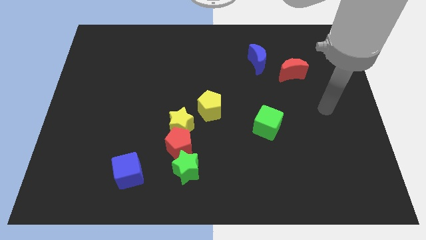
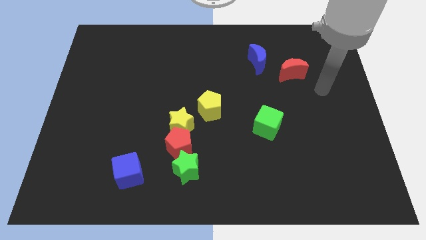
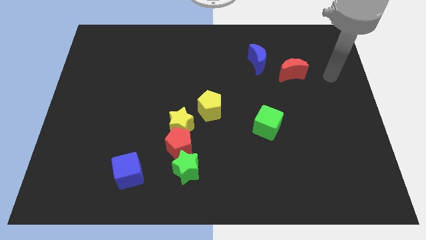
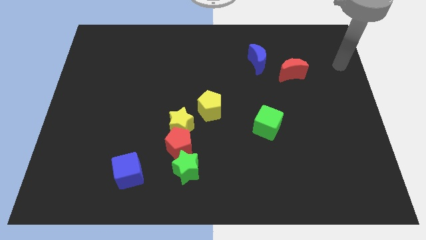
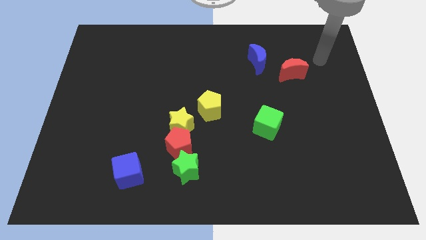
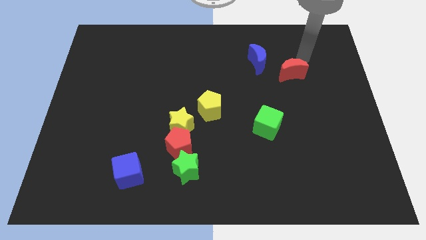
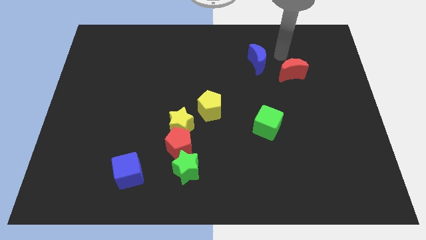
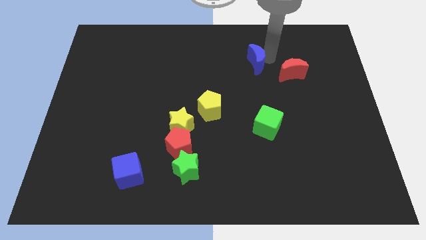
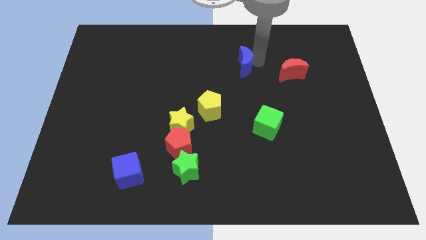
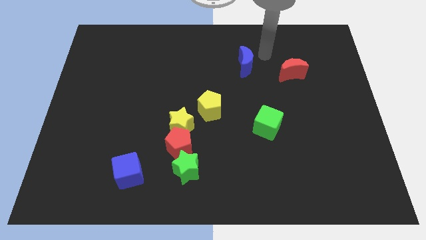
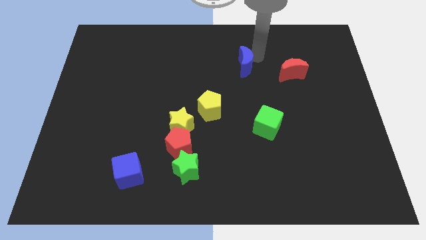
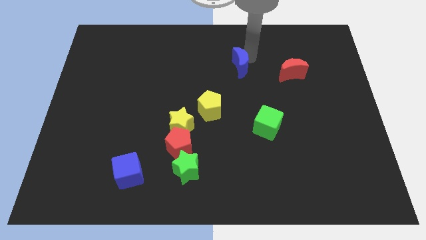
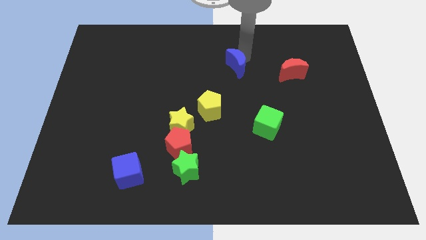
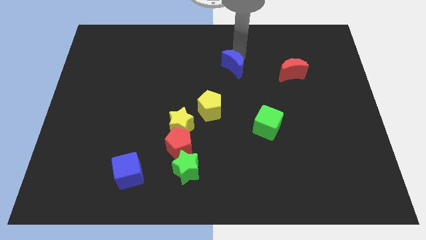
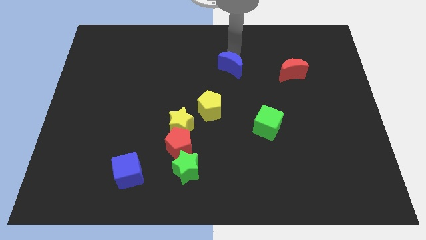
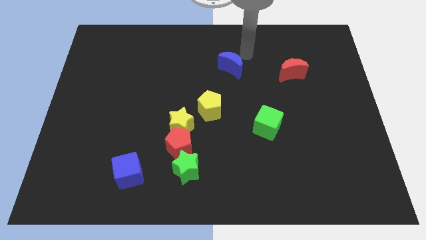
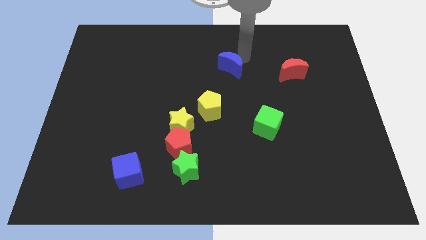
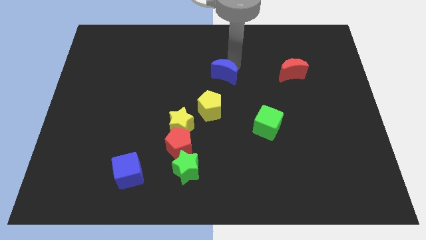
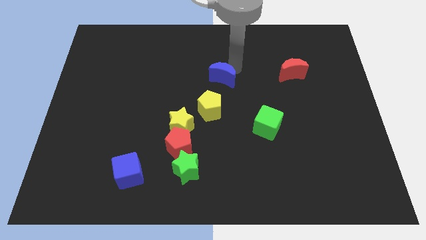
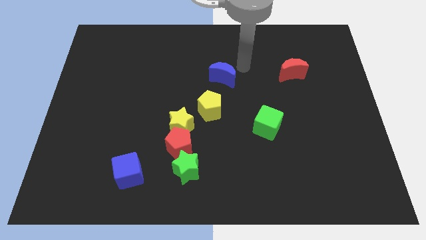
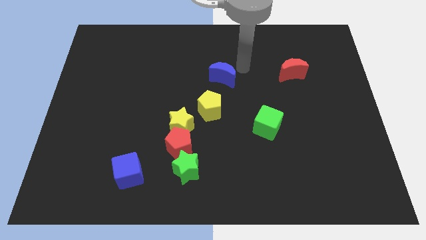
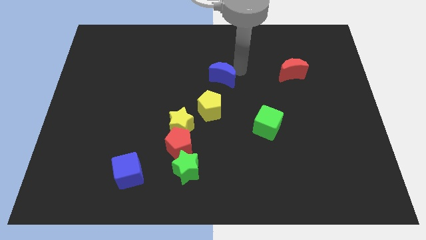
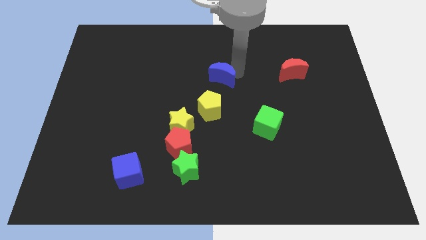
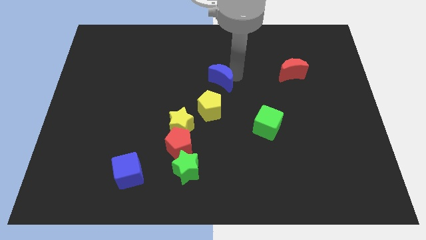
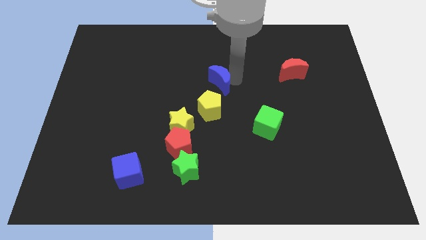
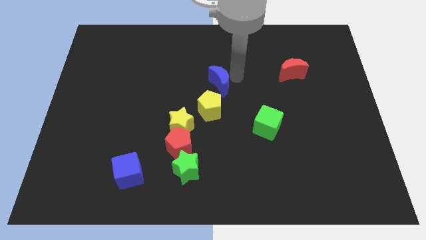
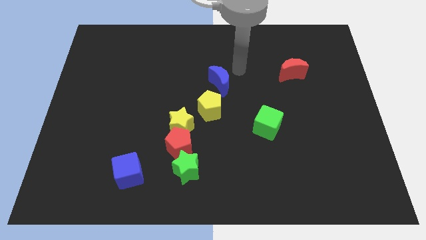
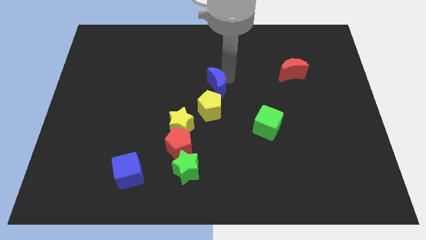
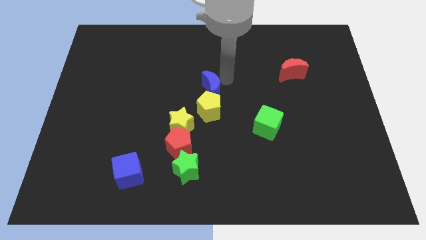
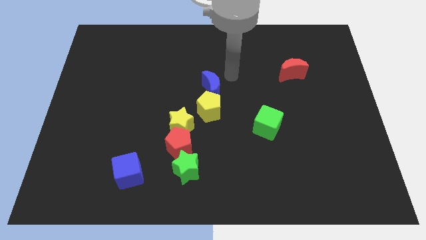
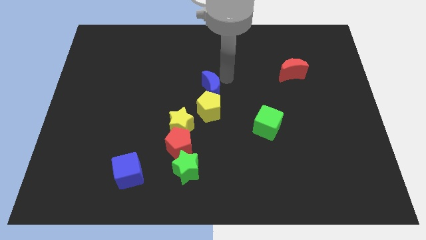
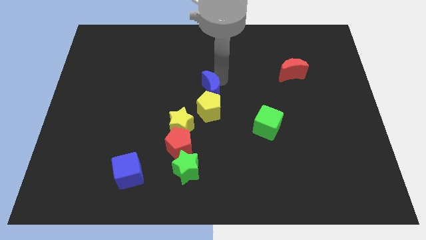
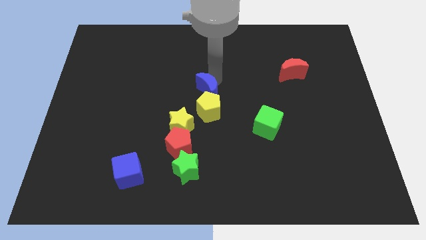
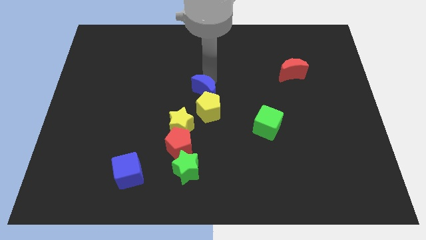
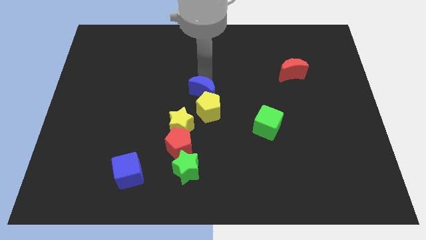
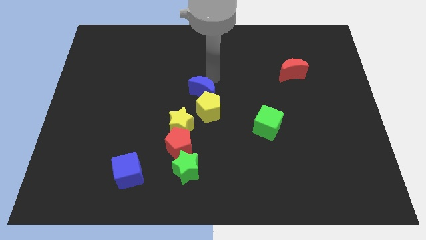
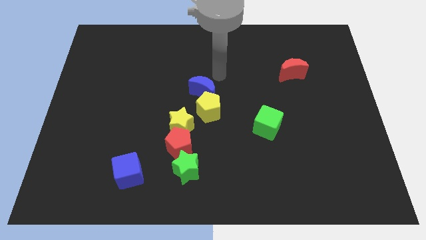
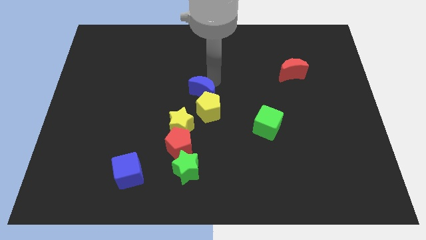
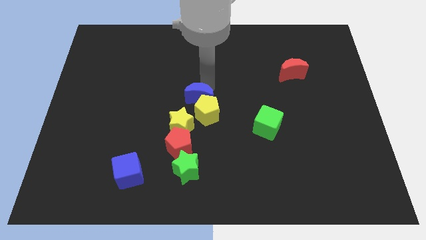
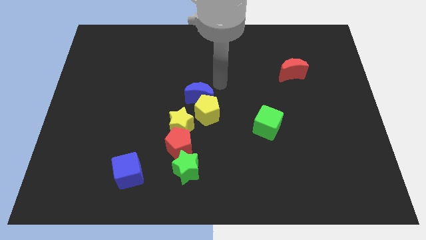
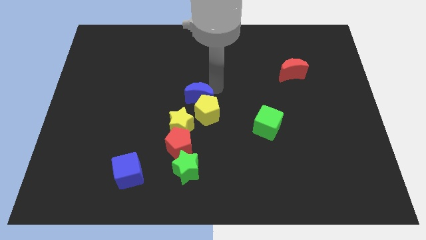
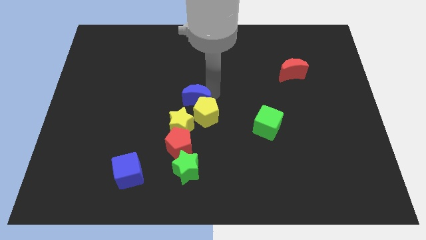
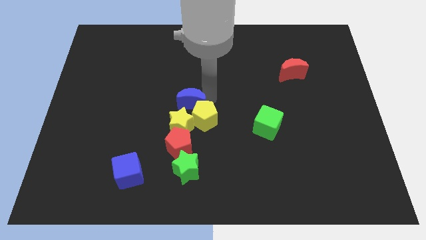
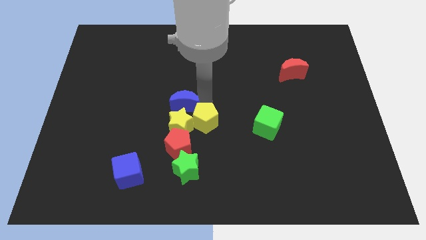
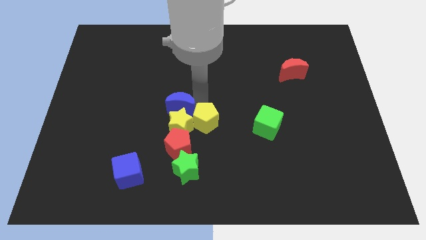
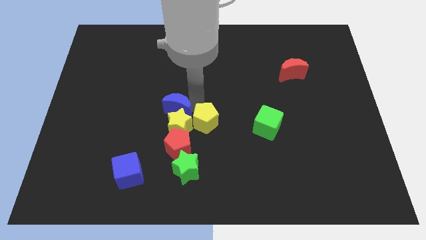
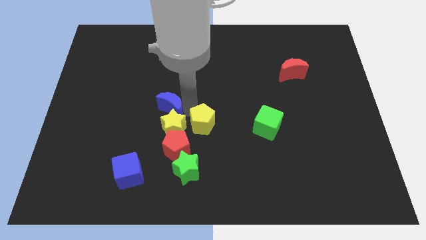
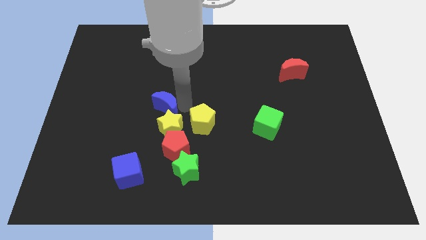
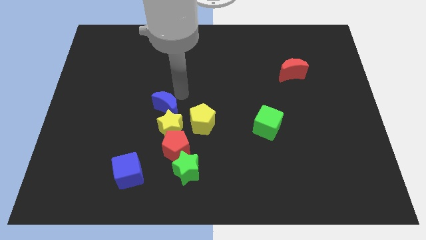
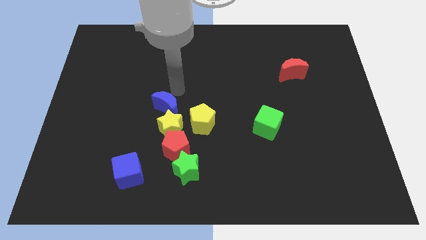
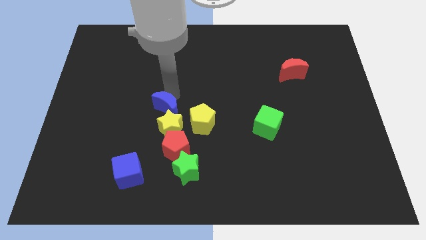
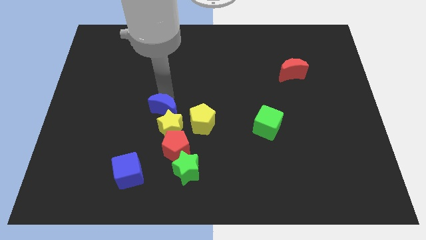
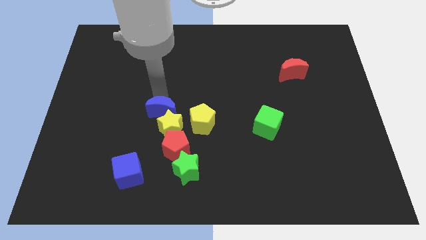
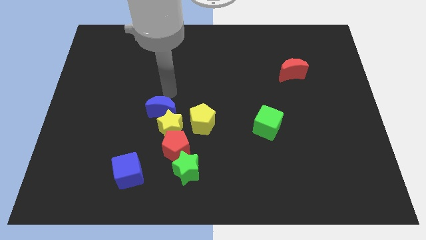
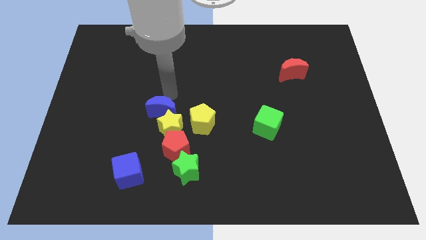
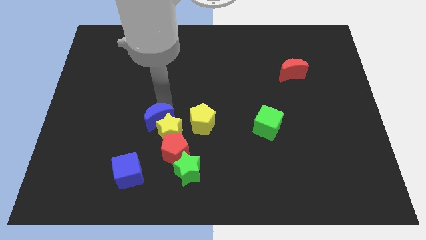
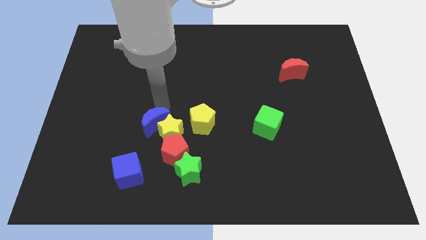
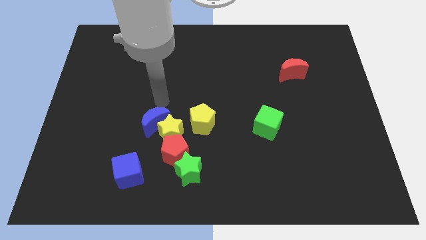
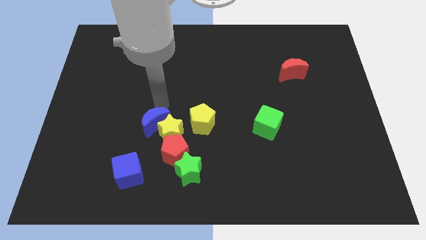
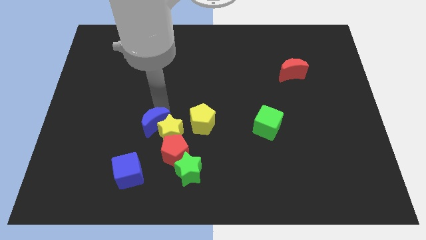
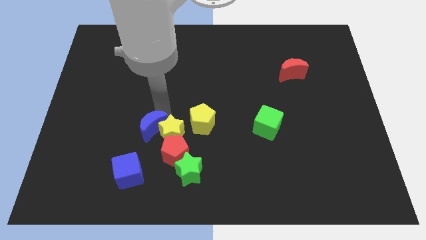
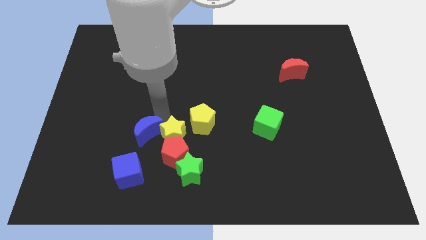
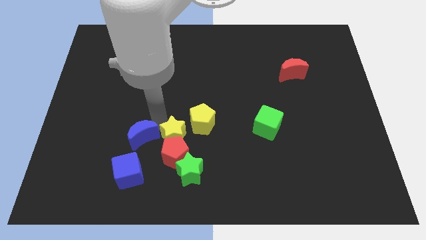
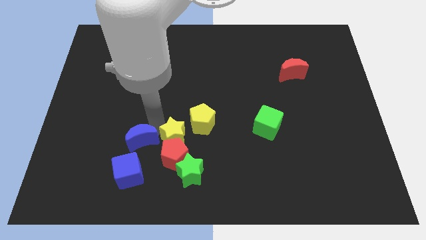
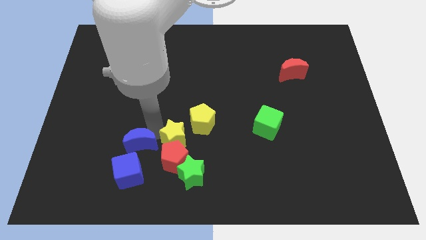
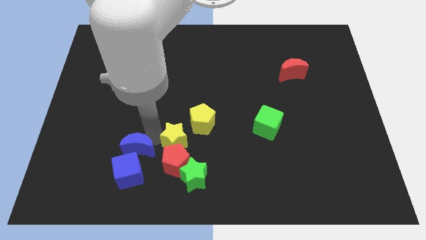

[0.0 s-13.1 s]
slide the blue moon close to the blue cube
